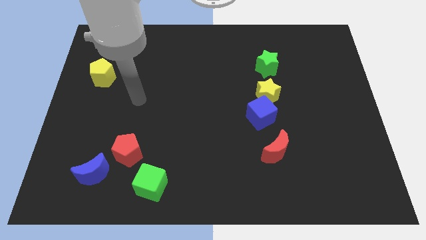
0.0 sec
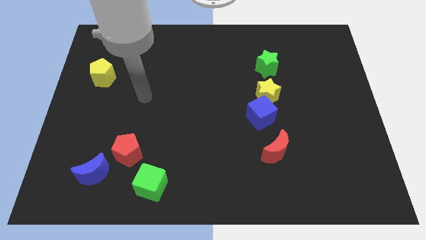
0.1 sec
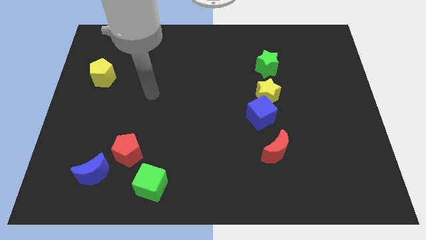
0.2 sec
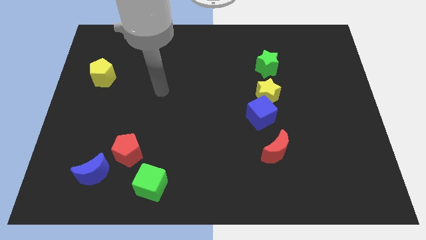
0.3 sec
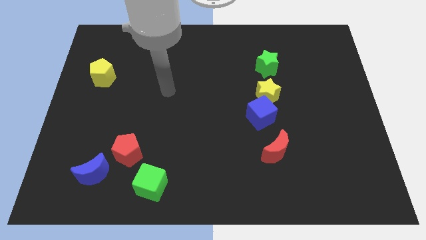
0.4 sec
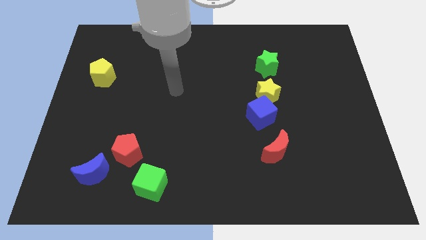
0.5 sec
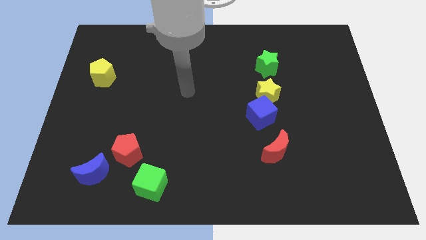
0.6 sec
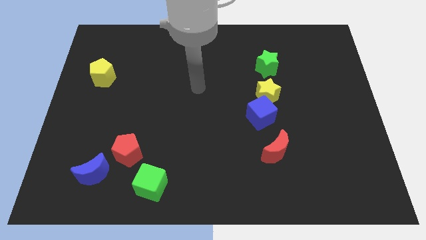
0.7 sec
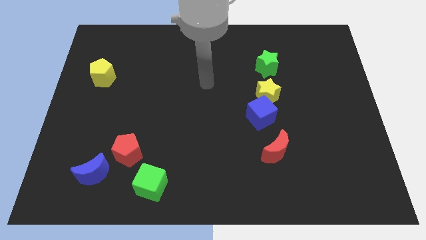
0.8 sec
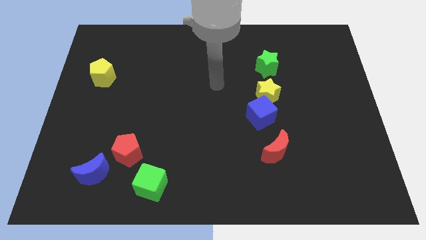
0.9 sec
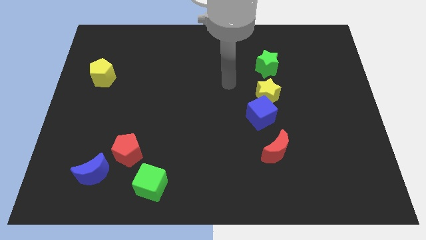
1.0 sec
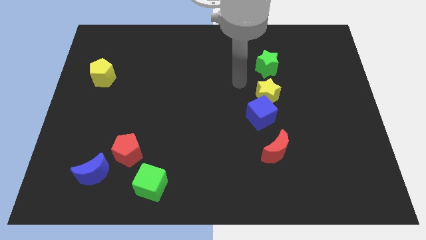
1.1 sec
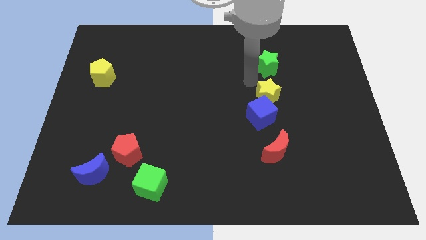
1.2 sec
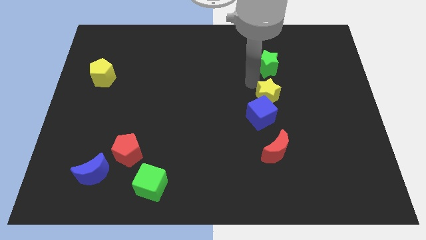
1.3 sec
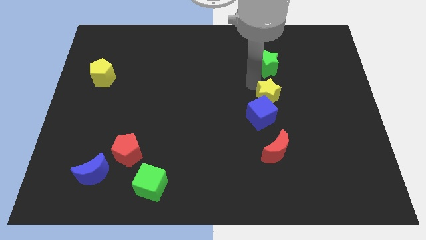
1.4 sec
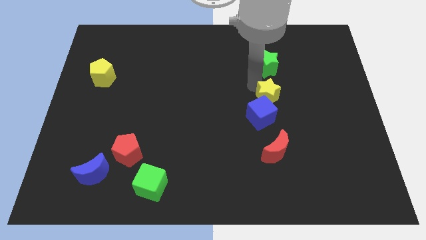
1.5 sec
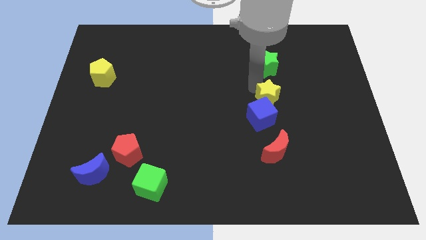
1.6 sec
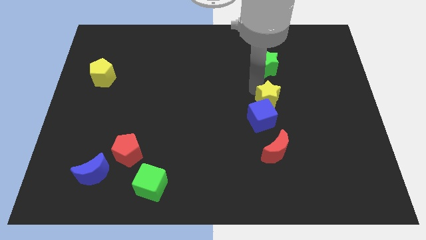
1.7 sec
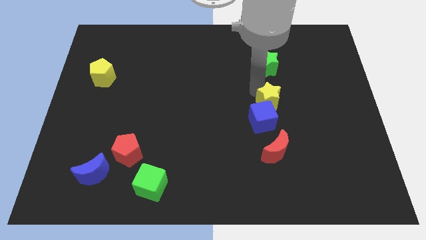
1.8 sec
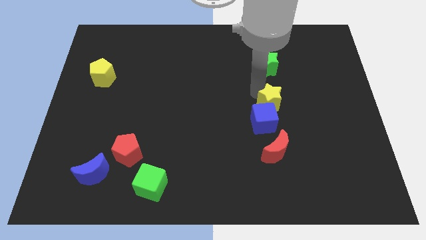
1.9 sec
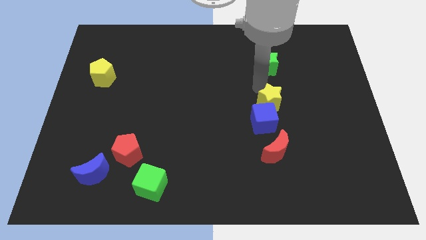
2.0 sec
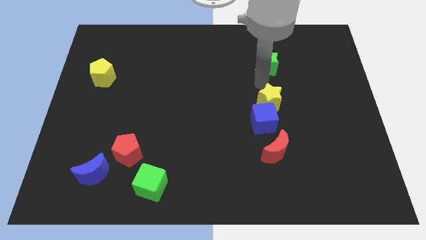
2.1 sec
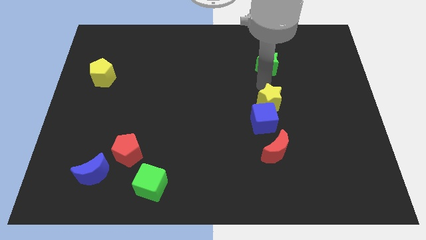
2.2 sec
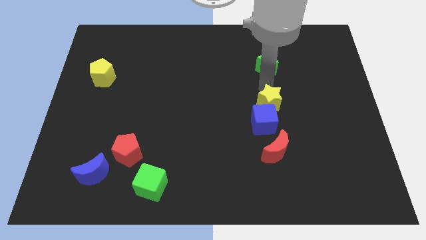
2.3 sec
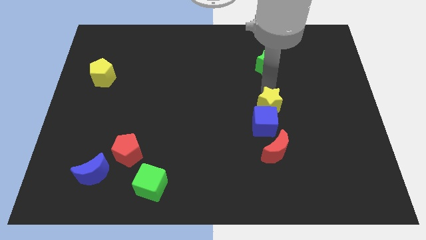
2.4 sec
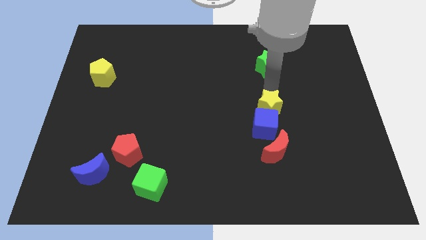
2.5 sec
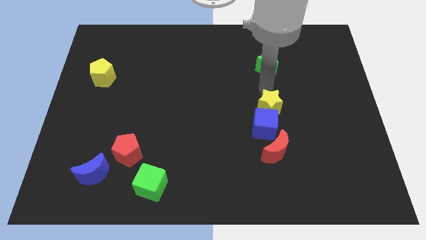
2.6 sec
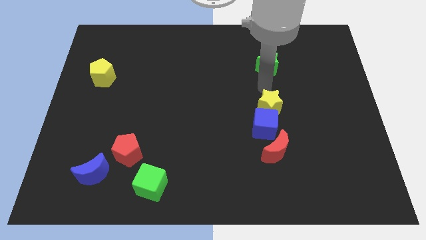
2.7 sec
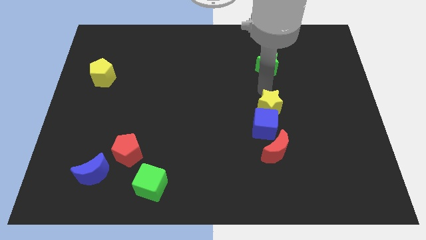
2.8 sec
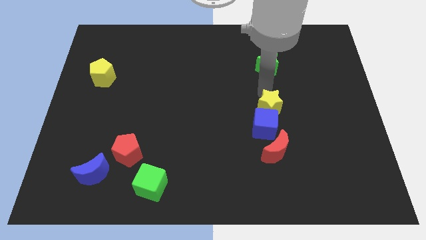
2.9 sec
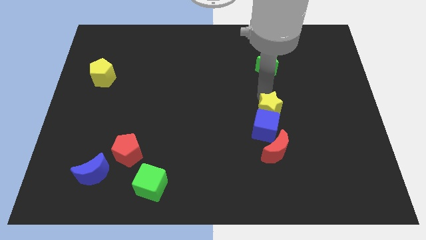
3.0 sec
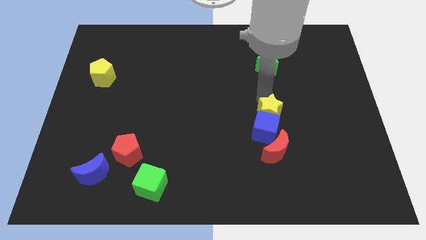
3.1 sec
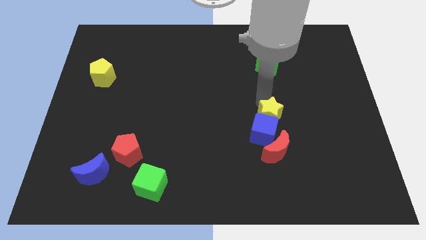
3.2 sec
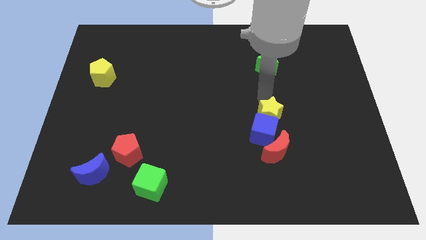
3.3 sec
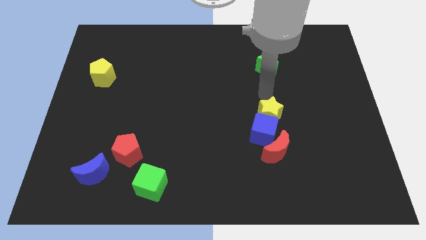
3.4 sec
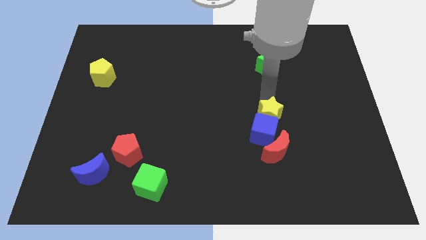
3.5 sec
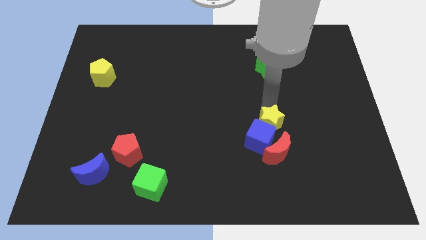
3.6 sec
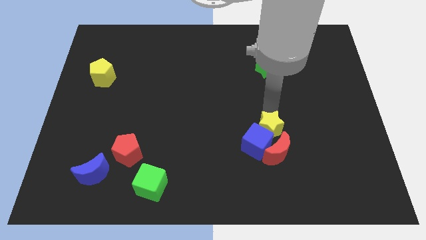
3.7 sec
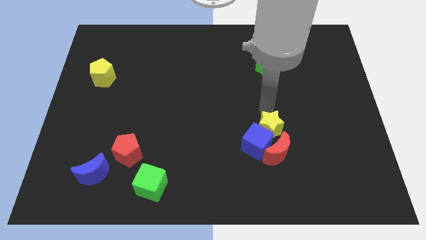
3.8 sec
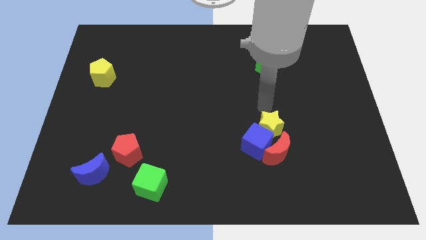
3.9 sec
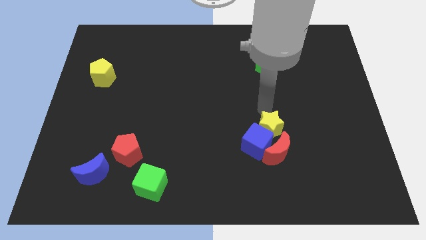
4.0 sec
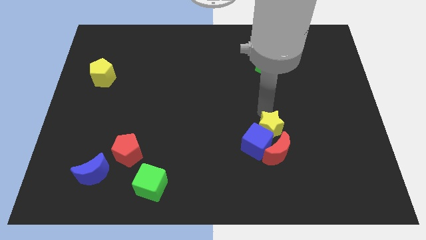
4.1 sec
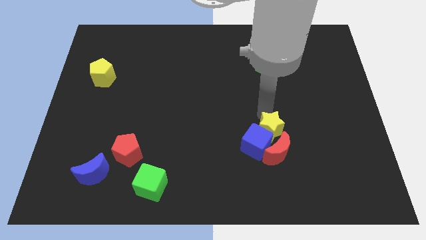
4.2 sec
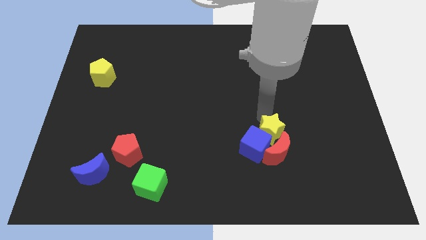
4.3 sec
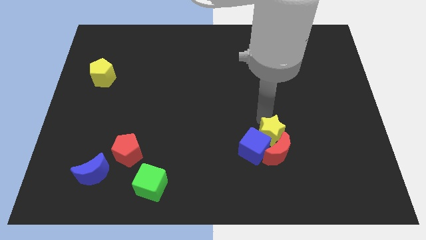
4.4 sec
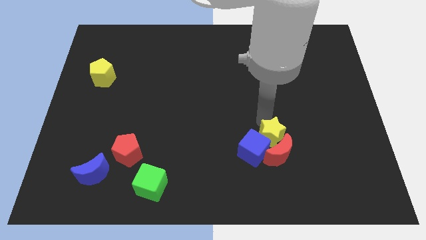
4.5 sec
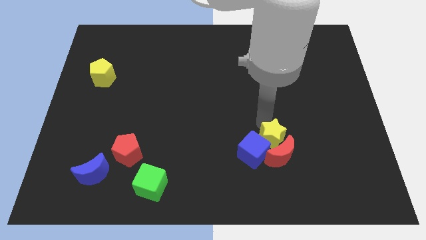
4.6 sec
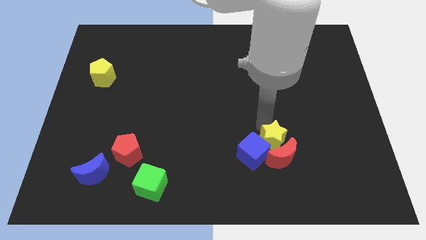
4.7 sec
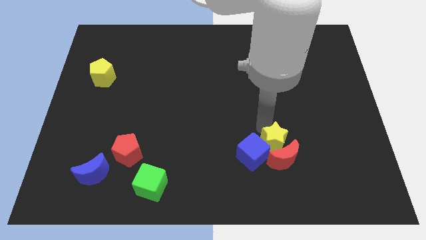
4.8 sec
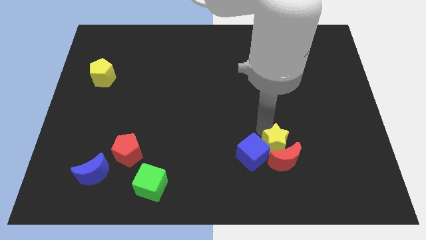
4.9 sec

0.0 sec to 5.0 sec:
pull the yellow star apart from the blue cube and green star

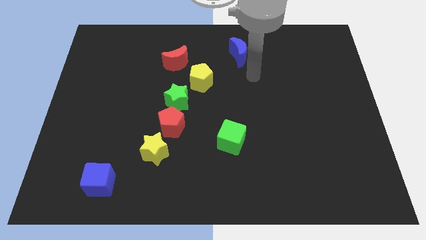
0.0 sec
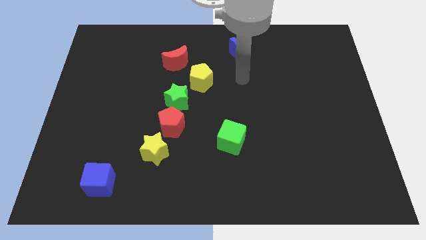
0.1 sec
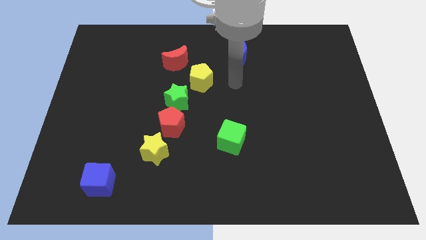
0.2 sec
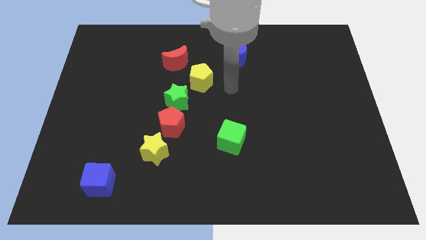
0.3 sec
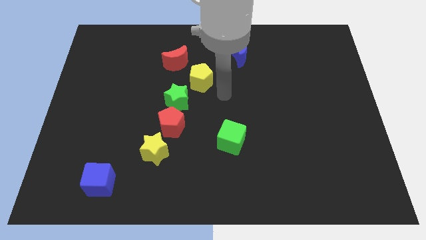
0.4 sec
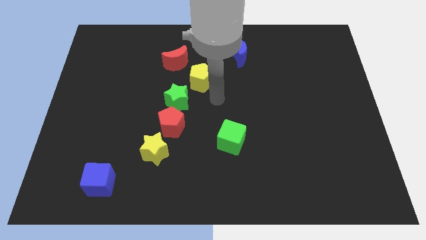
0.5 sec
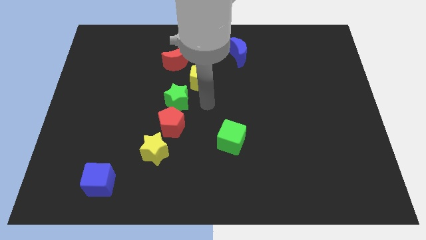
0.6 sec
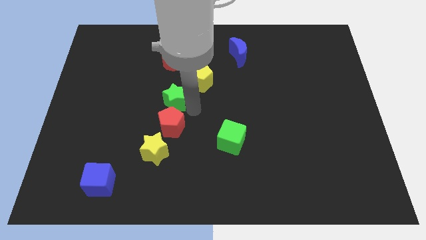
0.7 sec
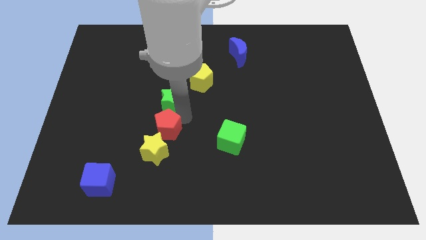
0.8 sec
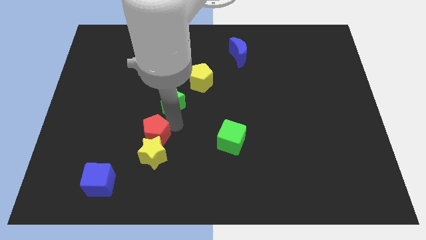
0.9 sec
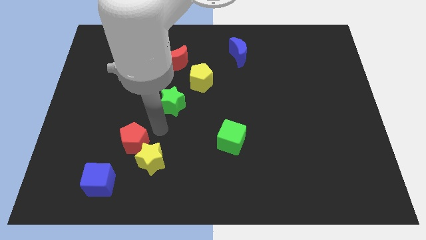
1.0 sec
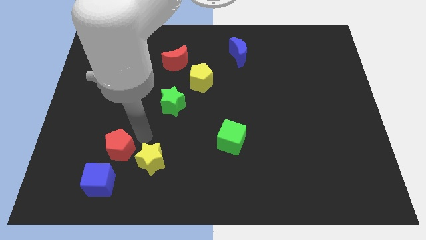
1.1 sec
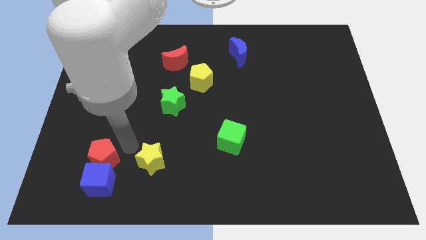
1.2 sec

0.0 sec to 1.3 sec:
pull the yellow star apart from the red pentagon

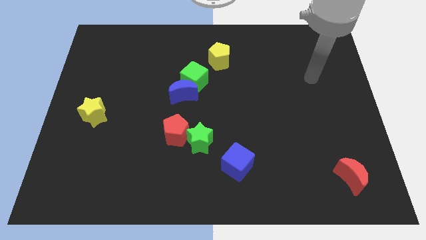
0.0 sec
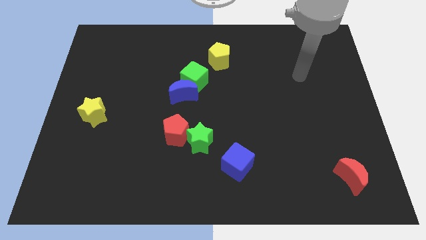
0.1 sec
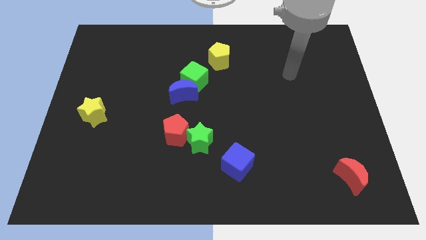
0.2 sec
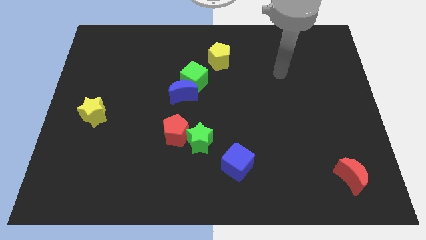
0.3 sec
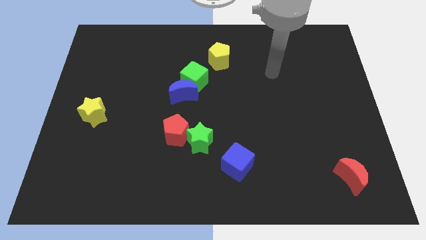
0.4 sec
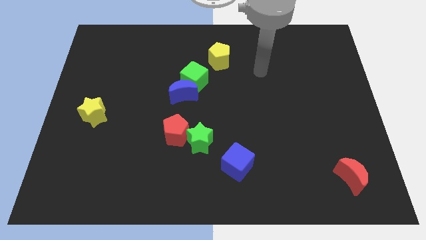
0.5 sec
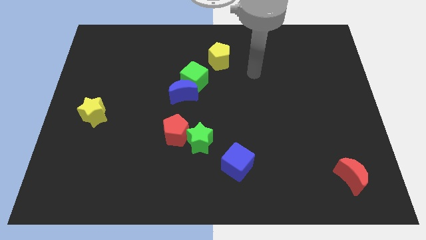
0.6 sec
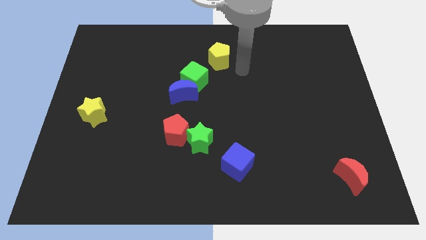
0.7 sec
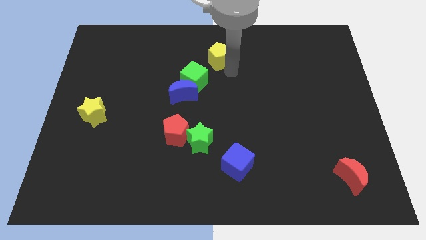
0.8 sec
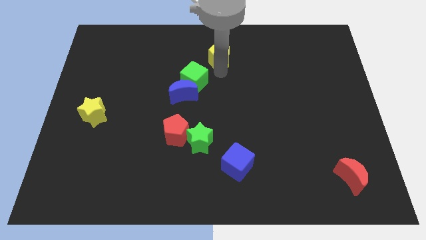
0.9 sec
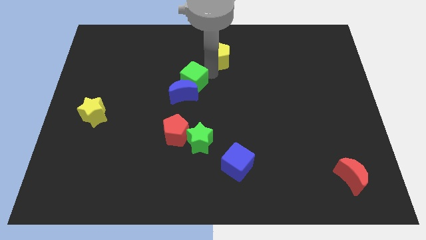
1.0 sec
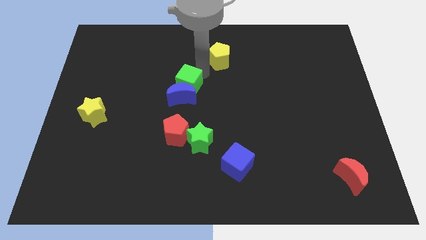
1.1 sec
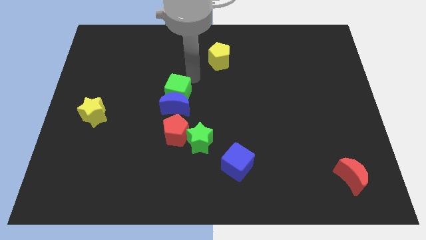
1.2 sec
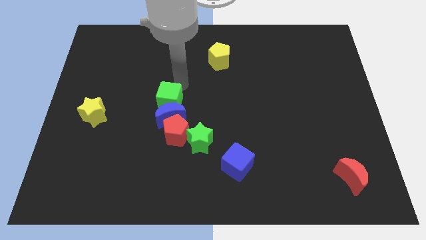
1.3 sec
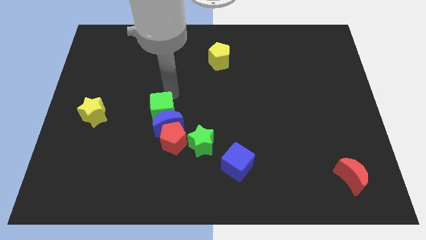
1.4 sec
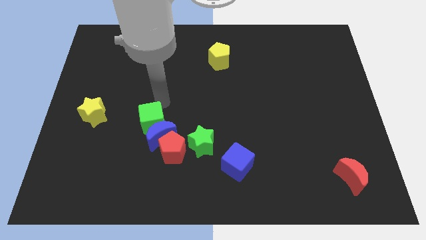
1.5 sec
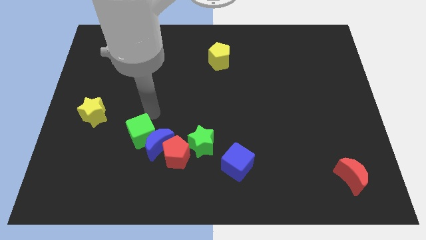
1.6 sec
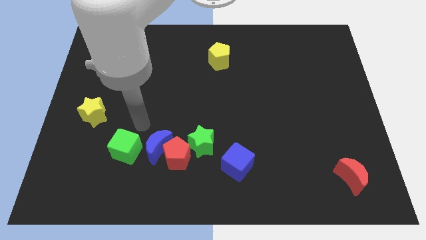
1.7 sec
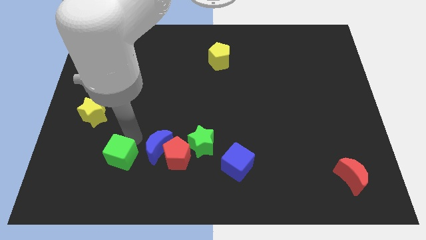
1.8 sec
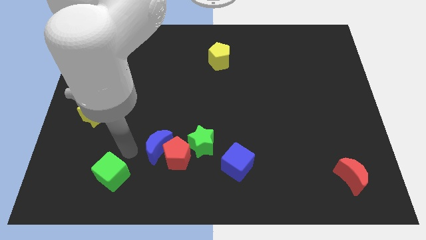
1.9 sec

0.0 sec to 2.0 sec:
pull the blue moon apart from the green cube

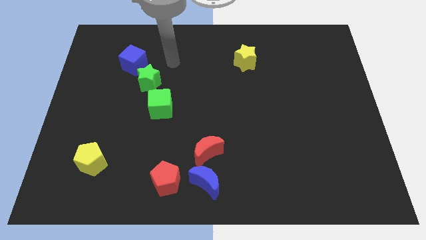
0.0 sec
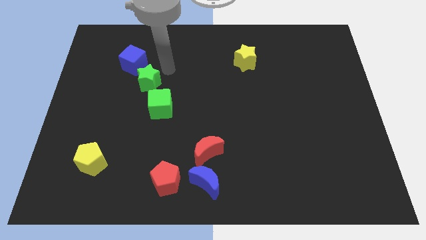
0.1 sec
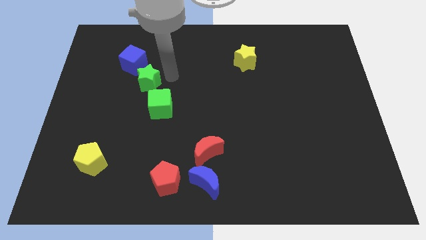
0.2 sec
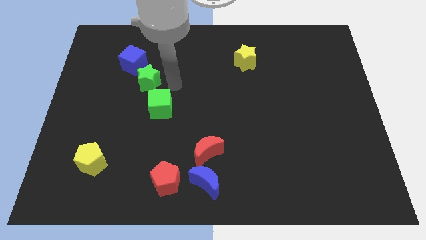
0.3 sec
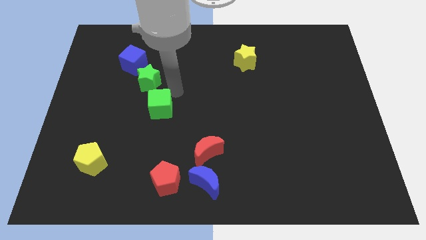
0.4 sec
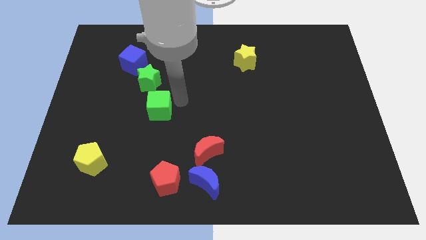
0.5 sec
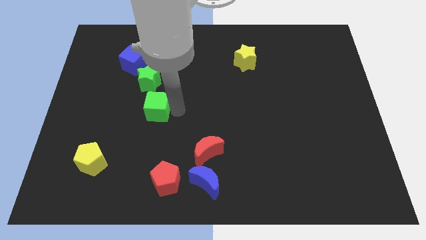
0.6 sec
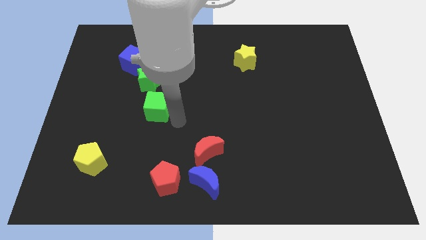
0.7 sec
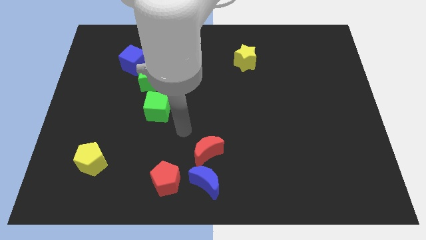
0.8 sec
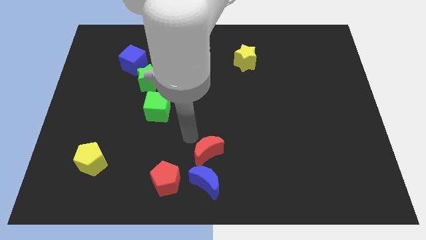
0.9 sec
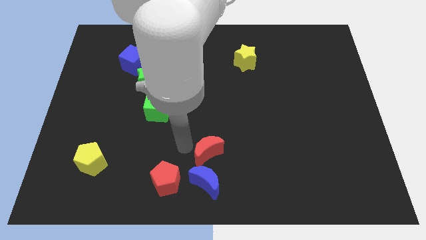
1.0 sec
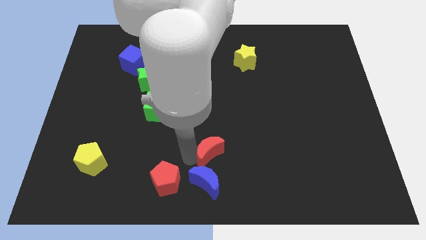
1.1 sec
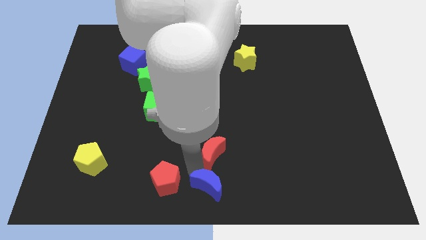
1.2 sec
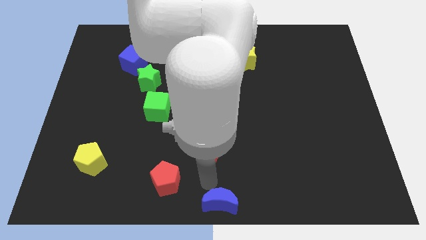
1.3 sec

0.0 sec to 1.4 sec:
move the red moon away from the blue moon
